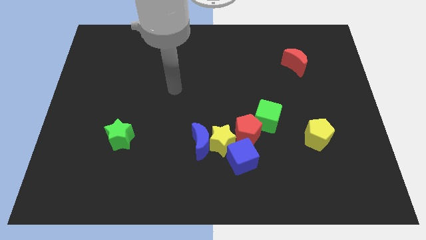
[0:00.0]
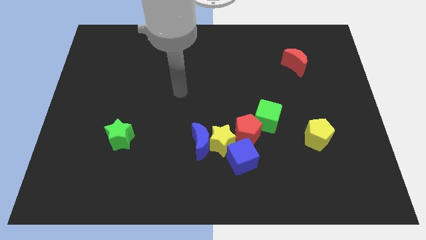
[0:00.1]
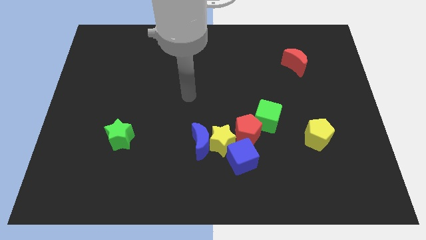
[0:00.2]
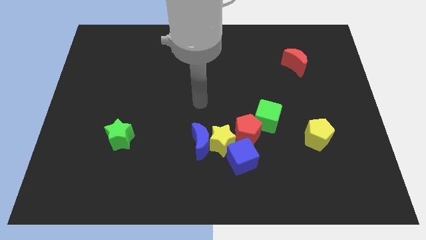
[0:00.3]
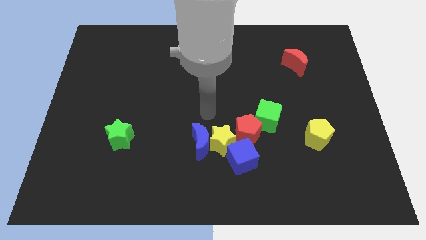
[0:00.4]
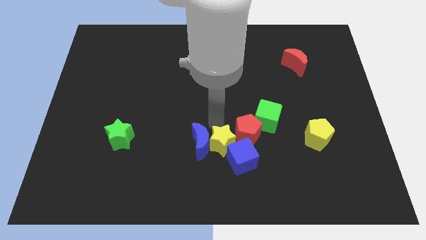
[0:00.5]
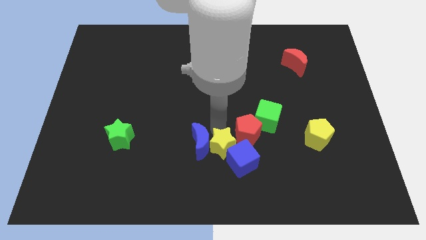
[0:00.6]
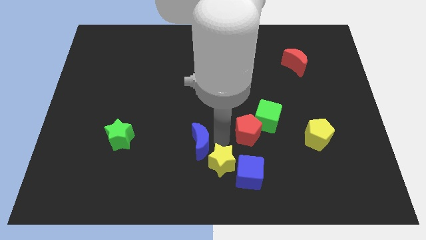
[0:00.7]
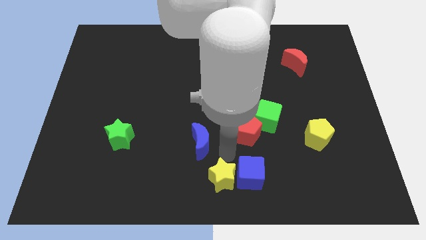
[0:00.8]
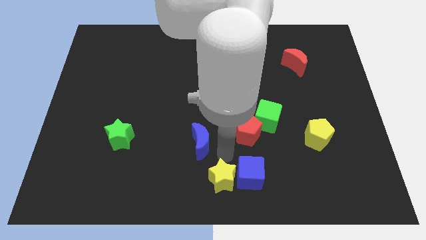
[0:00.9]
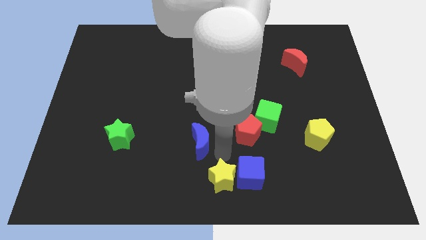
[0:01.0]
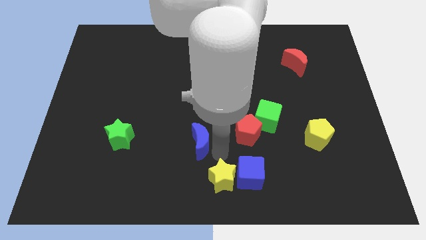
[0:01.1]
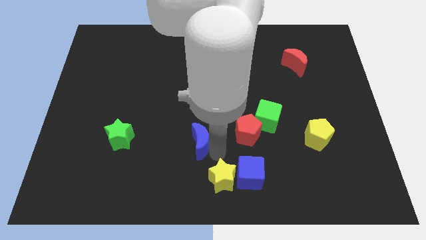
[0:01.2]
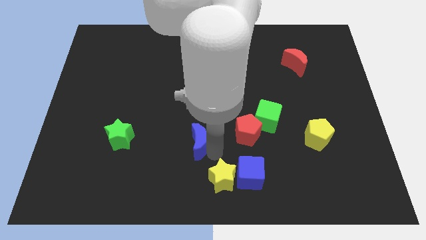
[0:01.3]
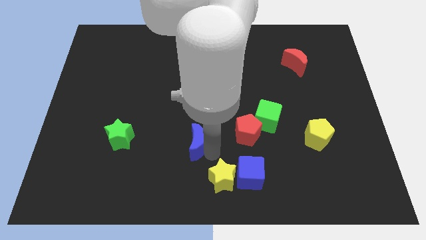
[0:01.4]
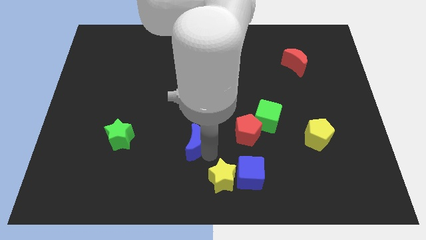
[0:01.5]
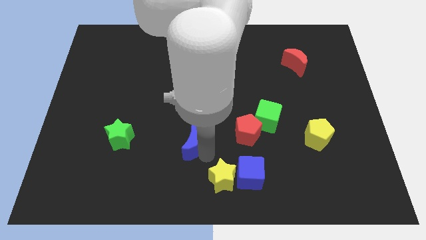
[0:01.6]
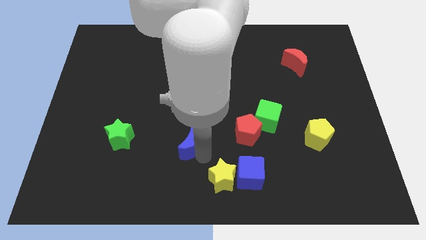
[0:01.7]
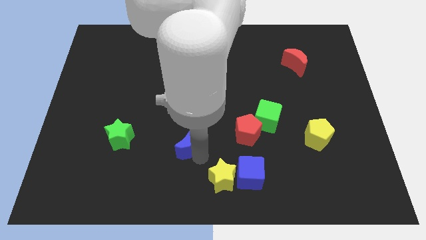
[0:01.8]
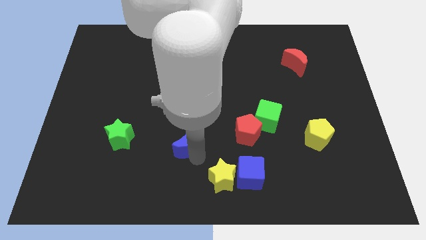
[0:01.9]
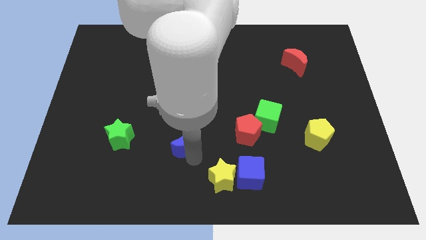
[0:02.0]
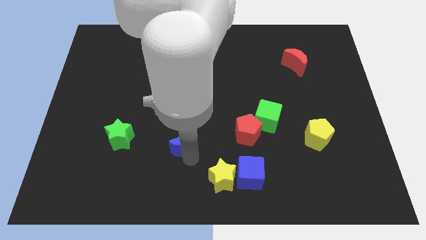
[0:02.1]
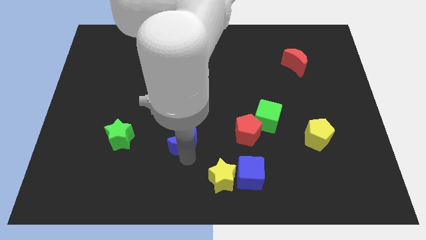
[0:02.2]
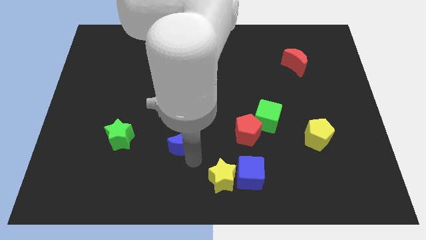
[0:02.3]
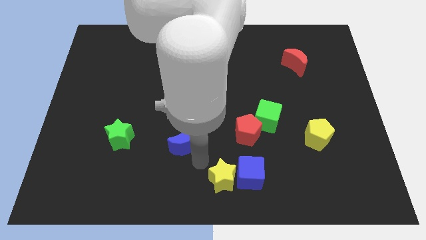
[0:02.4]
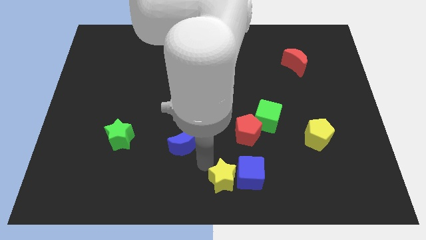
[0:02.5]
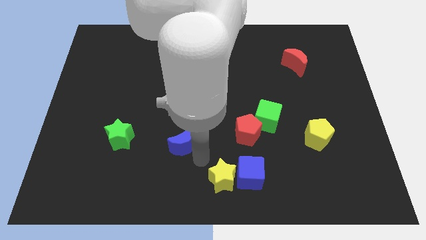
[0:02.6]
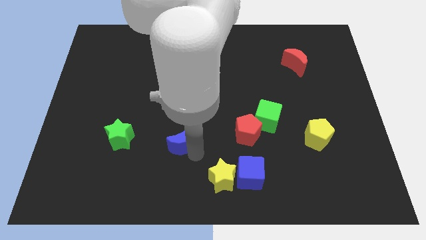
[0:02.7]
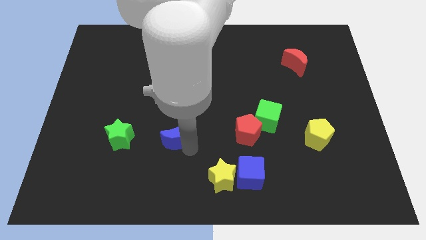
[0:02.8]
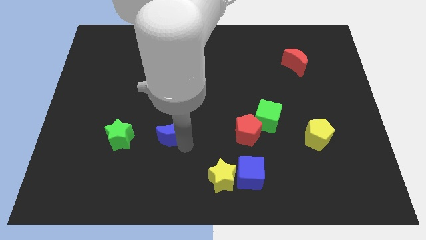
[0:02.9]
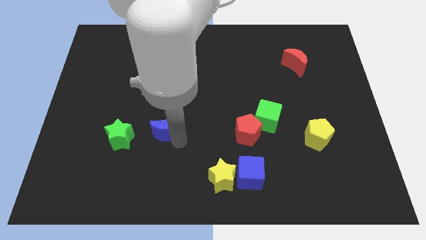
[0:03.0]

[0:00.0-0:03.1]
slightly move the blue moon up and then to the left

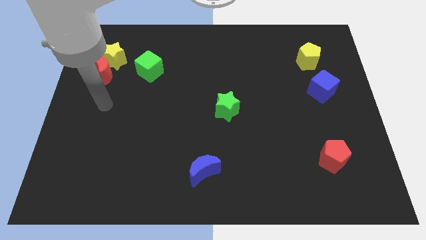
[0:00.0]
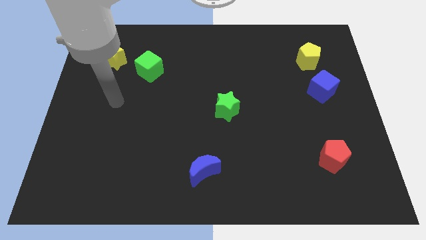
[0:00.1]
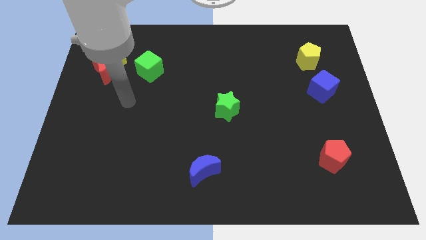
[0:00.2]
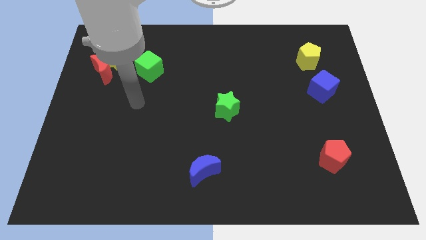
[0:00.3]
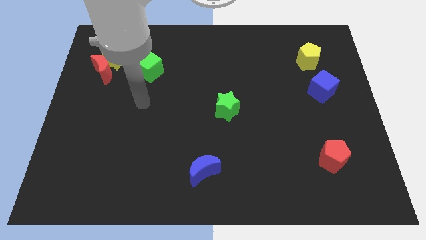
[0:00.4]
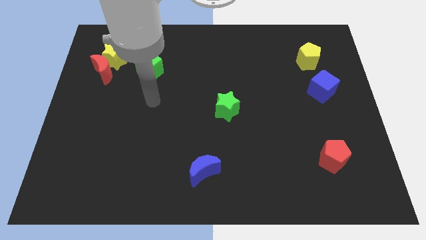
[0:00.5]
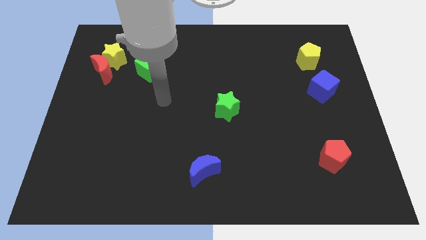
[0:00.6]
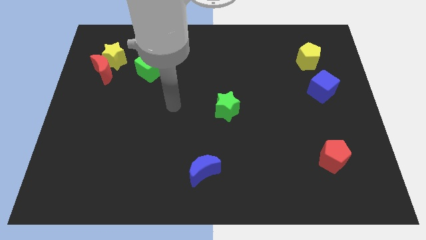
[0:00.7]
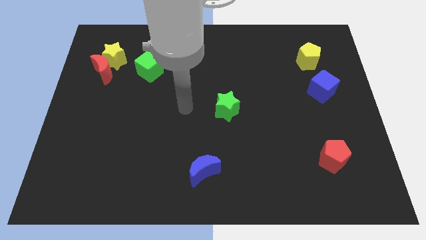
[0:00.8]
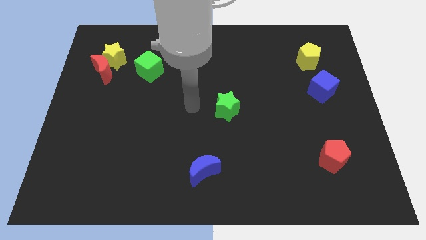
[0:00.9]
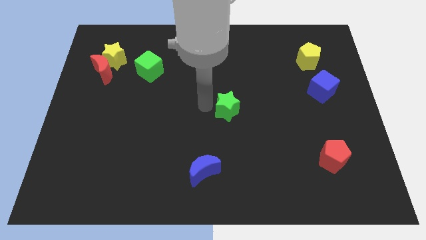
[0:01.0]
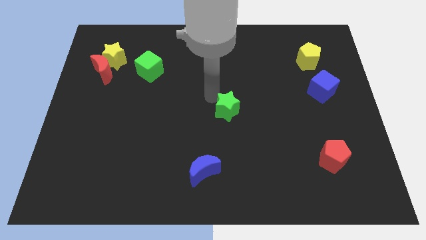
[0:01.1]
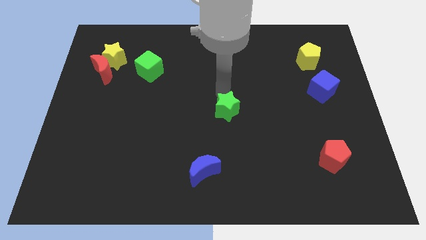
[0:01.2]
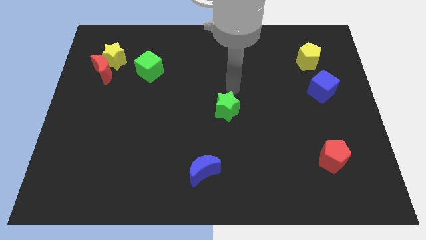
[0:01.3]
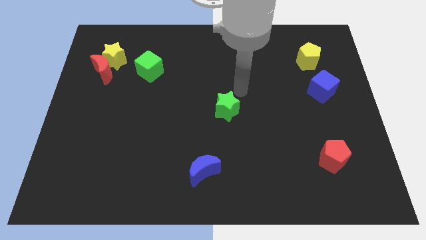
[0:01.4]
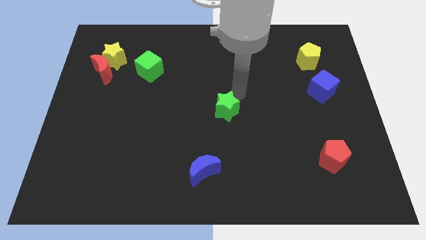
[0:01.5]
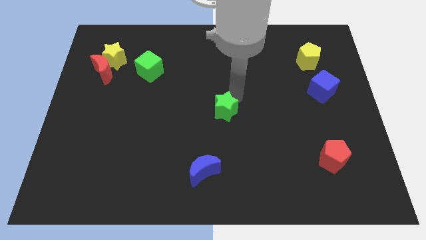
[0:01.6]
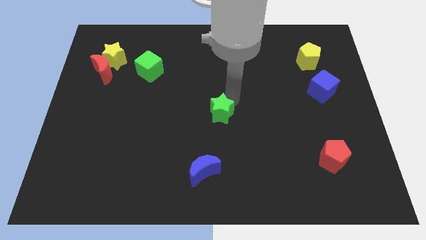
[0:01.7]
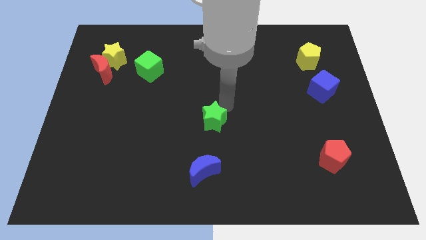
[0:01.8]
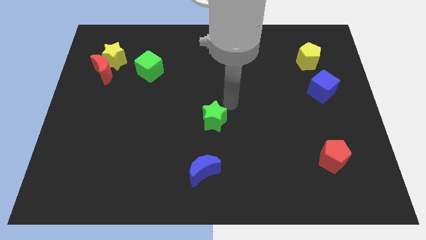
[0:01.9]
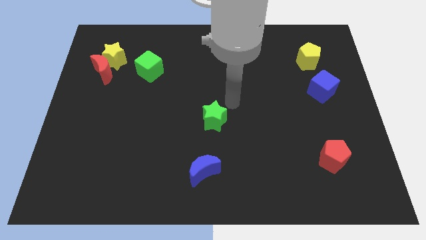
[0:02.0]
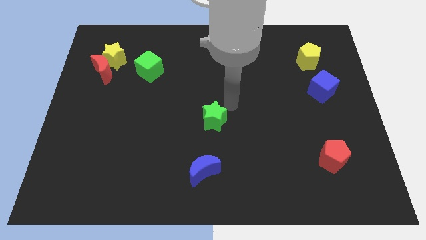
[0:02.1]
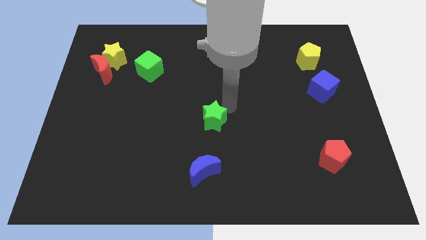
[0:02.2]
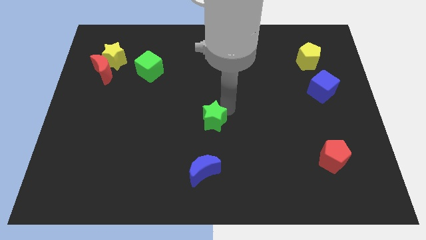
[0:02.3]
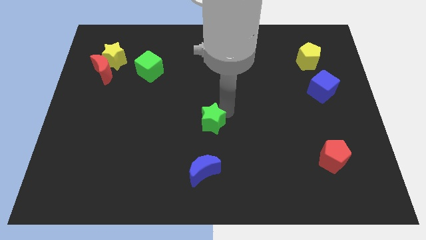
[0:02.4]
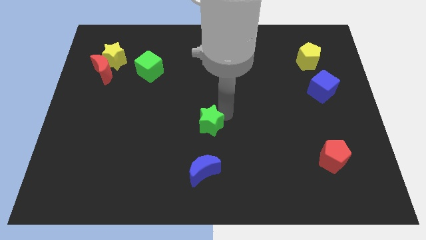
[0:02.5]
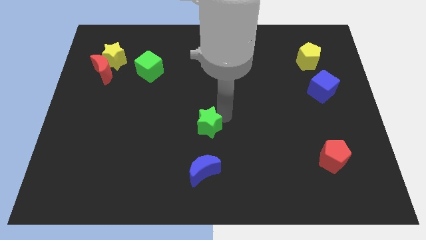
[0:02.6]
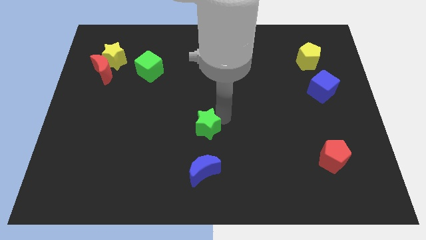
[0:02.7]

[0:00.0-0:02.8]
move the green star a little bit diagonally down and to the left

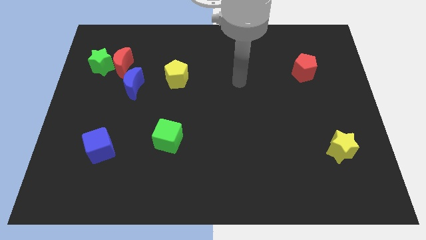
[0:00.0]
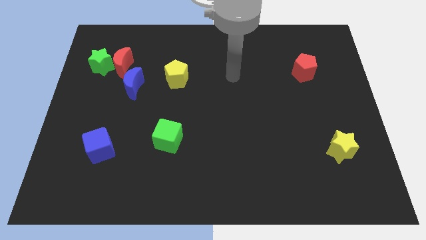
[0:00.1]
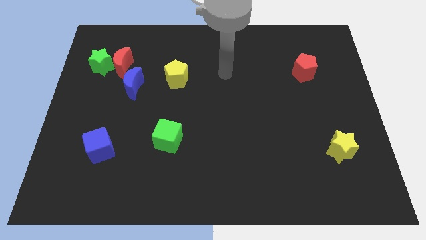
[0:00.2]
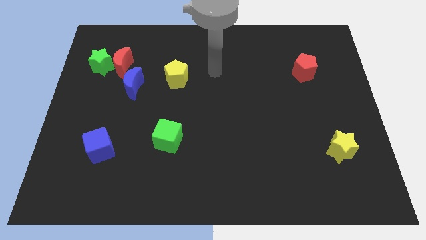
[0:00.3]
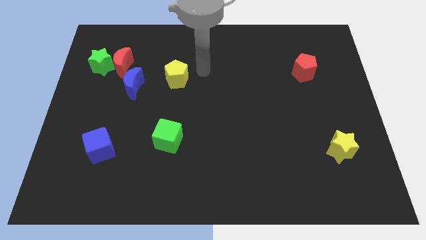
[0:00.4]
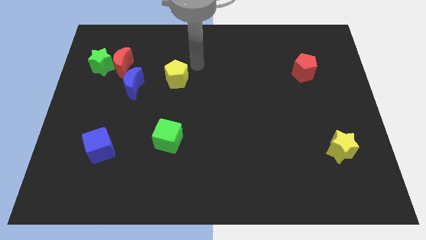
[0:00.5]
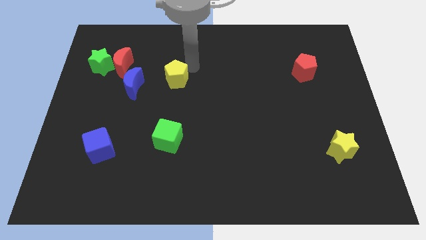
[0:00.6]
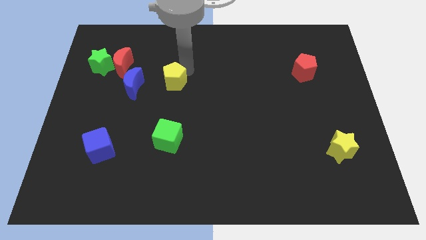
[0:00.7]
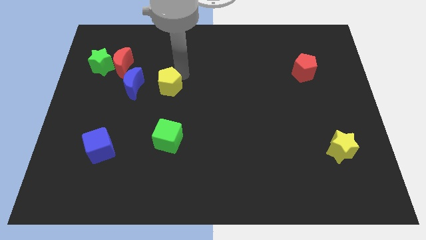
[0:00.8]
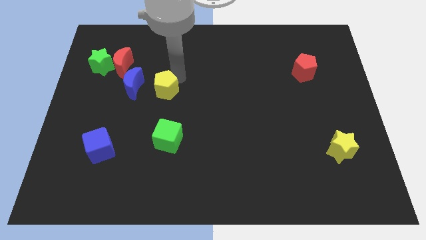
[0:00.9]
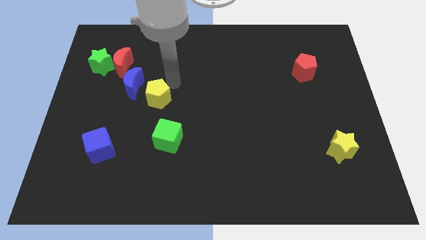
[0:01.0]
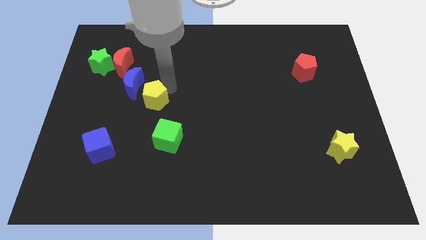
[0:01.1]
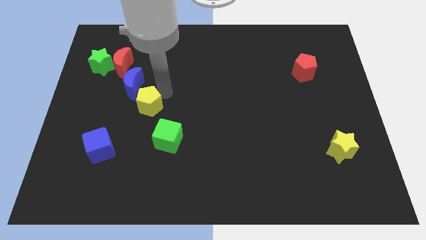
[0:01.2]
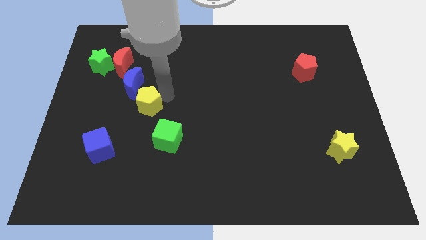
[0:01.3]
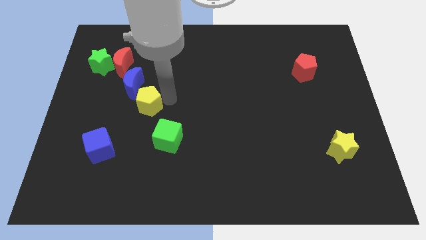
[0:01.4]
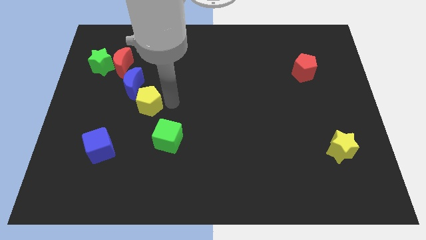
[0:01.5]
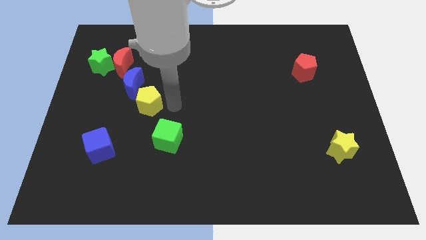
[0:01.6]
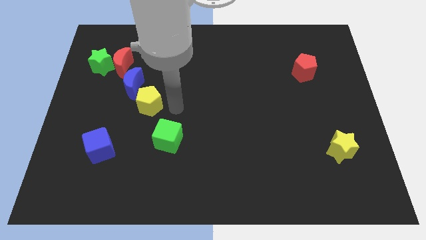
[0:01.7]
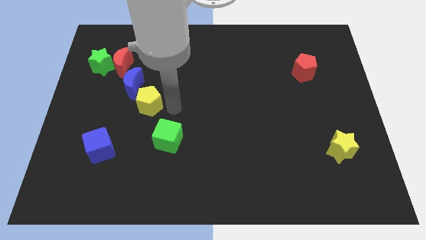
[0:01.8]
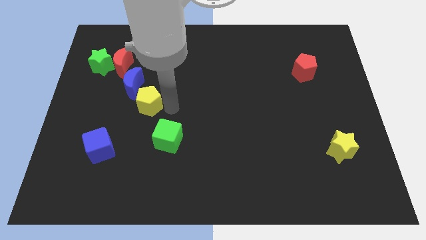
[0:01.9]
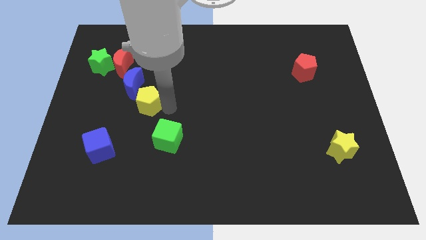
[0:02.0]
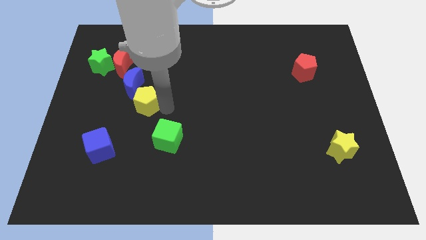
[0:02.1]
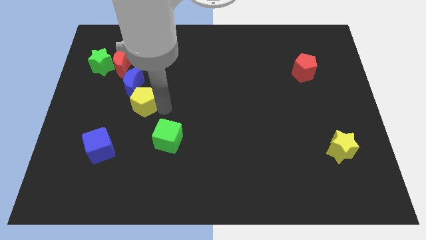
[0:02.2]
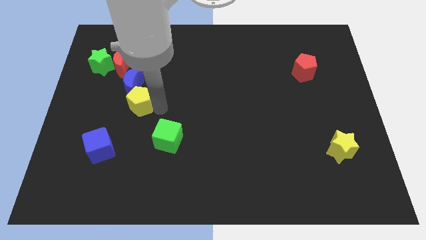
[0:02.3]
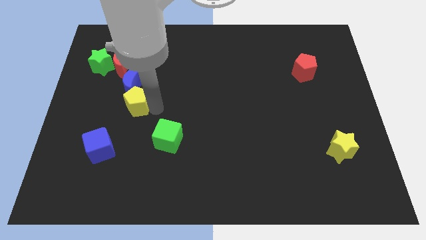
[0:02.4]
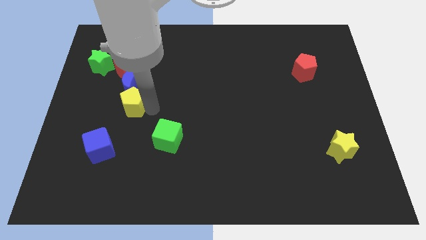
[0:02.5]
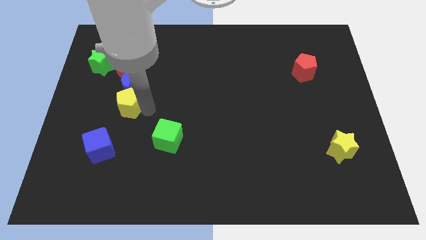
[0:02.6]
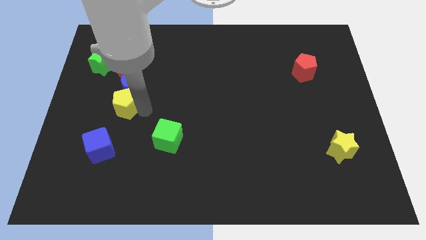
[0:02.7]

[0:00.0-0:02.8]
slightly slide the yellow pentagon left
